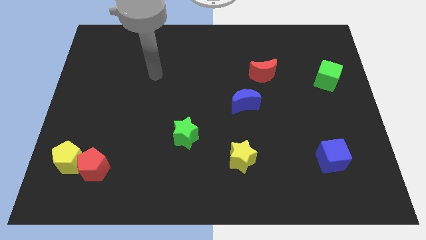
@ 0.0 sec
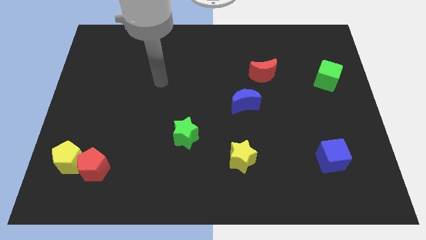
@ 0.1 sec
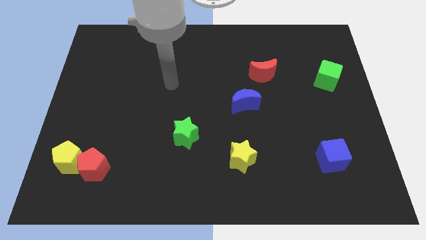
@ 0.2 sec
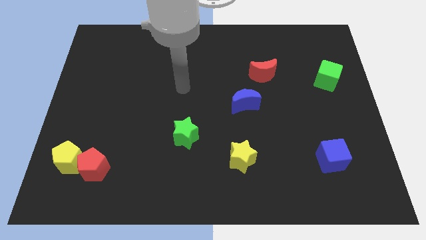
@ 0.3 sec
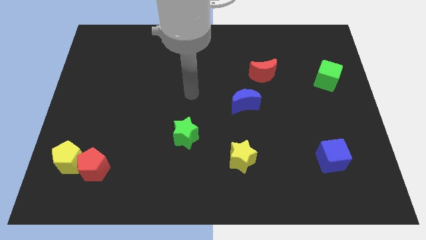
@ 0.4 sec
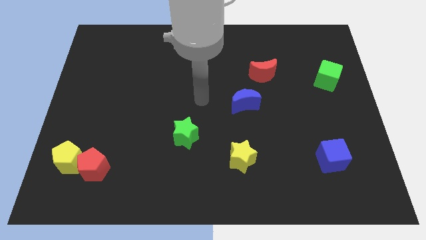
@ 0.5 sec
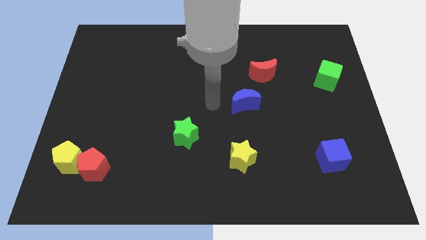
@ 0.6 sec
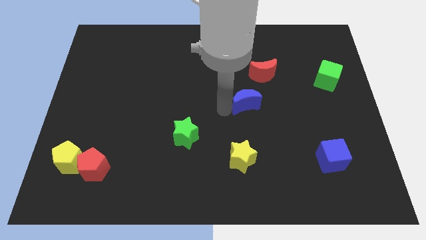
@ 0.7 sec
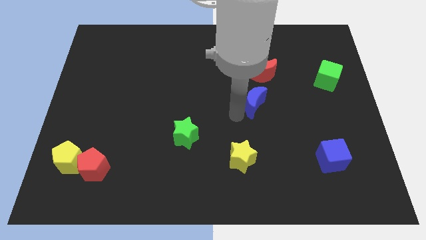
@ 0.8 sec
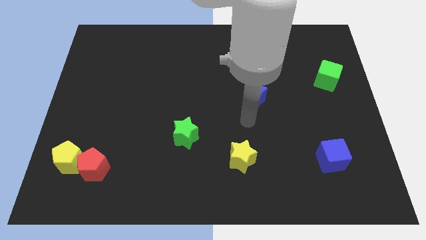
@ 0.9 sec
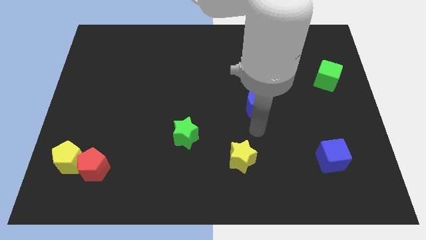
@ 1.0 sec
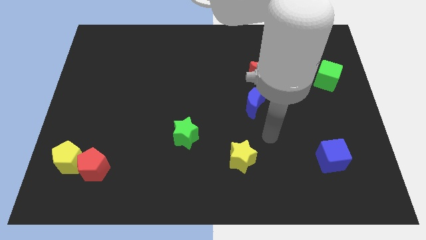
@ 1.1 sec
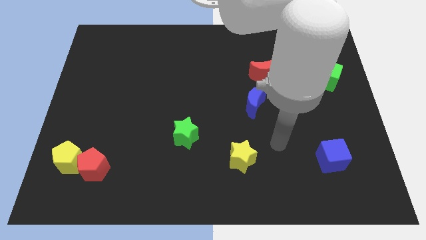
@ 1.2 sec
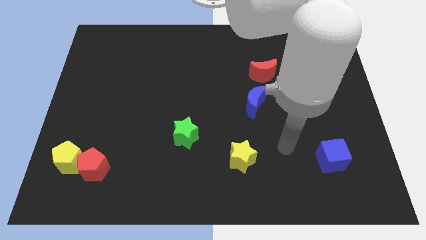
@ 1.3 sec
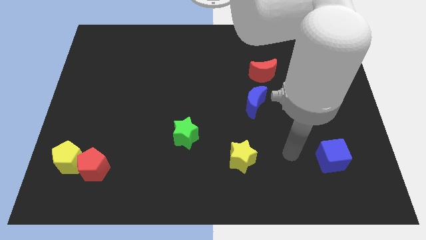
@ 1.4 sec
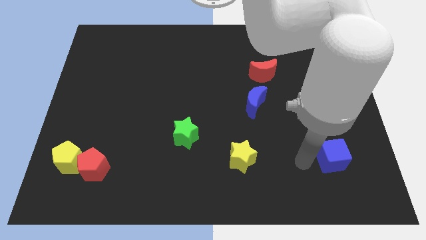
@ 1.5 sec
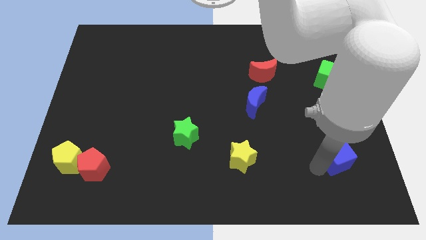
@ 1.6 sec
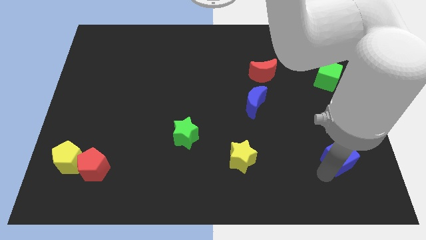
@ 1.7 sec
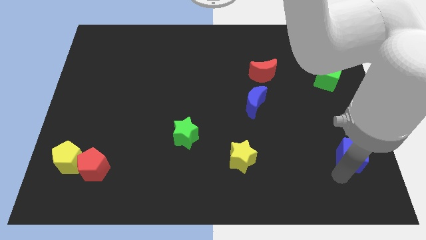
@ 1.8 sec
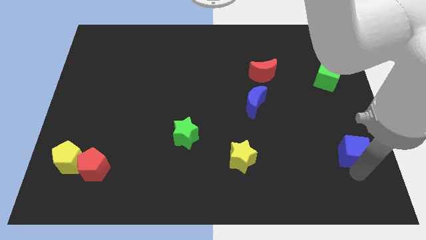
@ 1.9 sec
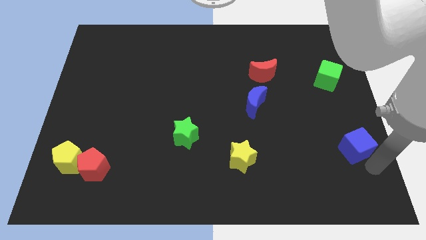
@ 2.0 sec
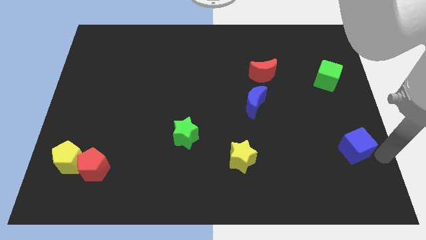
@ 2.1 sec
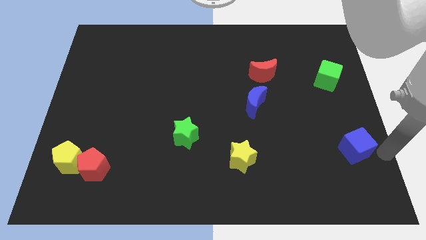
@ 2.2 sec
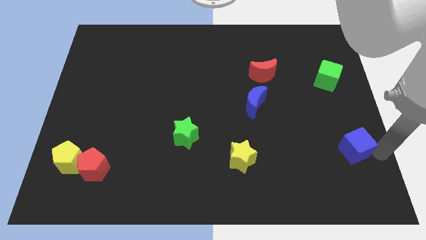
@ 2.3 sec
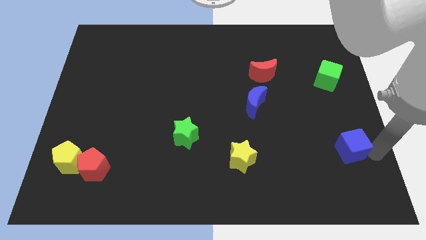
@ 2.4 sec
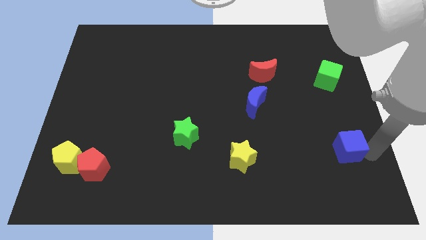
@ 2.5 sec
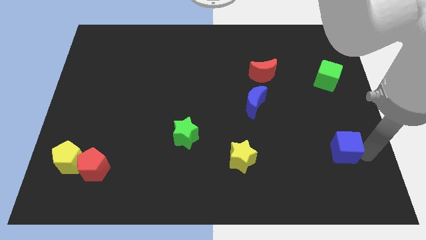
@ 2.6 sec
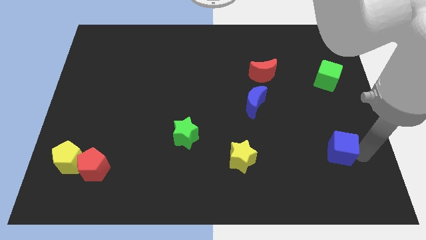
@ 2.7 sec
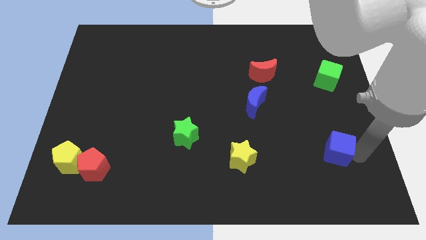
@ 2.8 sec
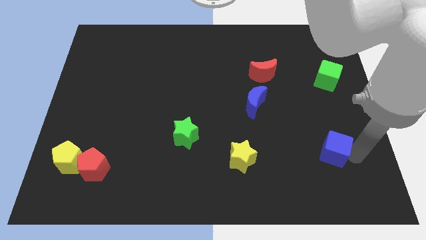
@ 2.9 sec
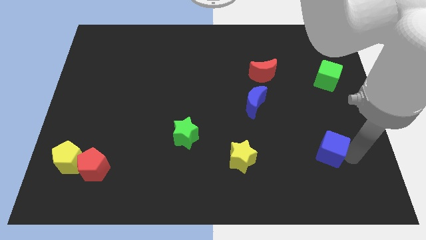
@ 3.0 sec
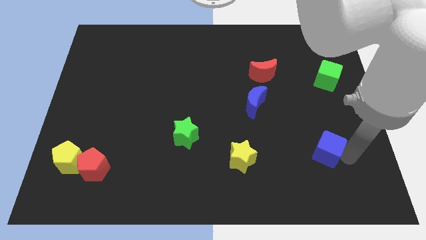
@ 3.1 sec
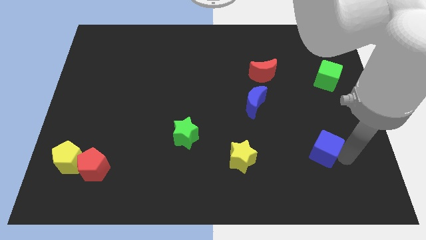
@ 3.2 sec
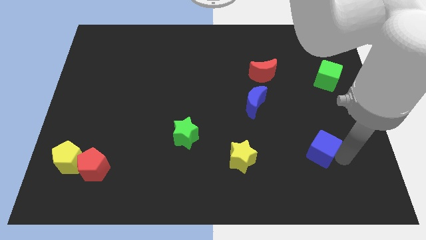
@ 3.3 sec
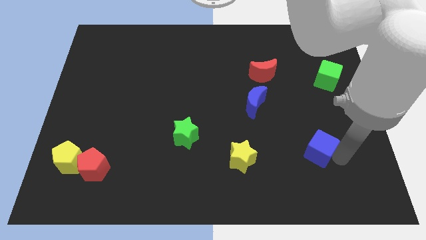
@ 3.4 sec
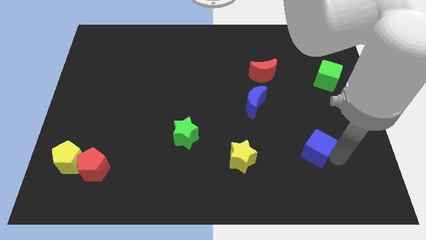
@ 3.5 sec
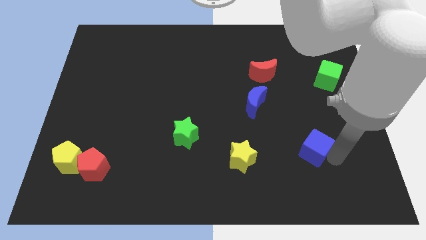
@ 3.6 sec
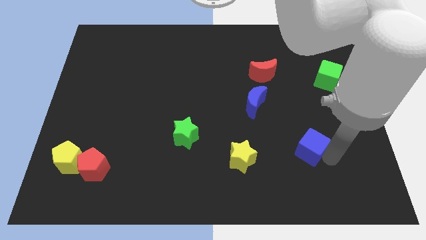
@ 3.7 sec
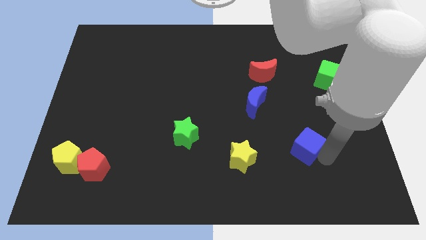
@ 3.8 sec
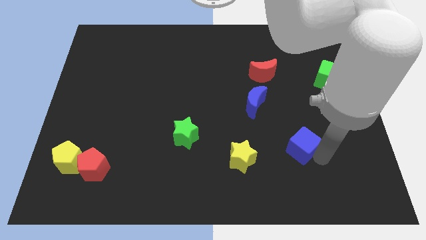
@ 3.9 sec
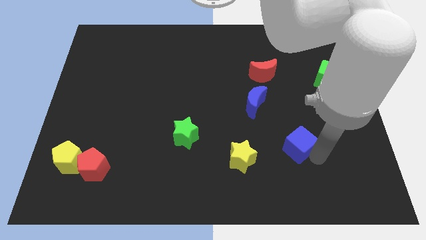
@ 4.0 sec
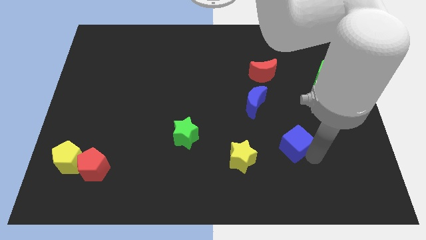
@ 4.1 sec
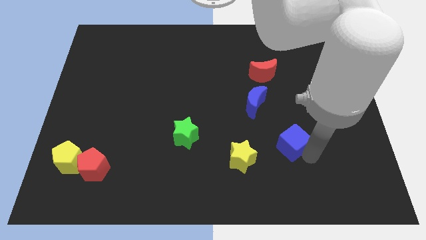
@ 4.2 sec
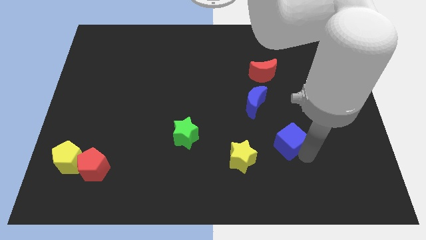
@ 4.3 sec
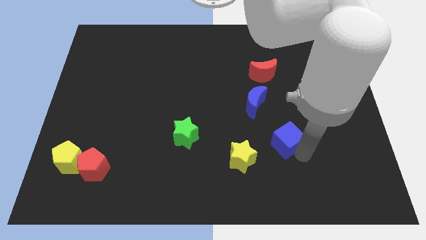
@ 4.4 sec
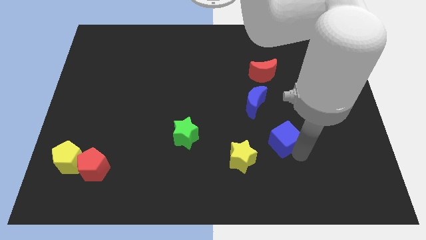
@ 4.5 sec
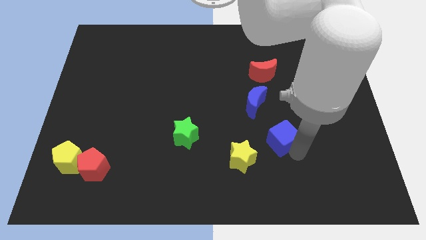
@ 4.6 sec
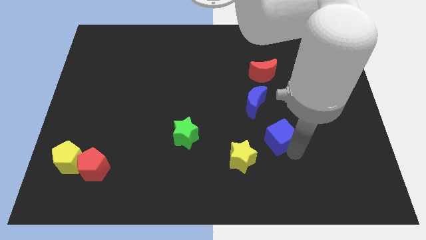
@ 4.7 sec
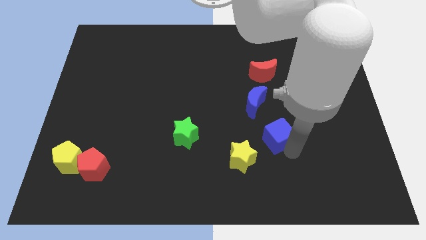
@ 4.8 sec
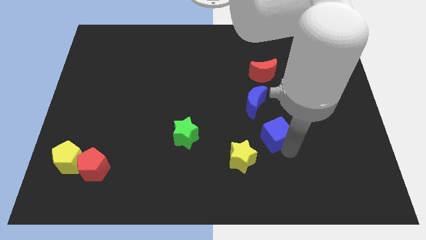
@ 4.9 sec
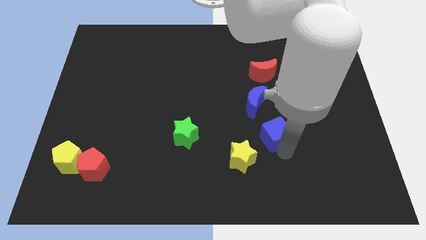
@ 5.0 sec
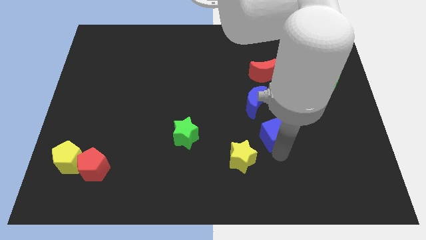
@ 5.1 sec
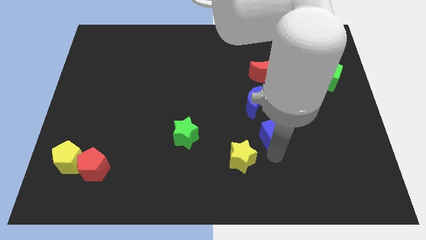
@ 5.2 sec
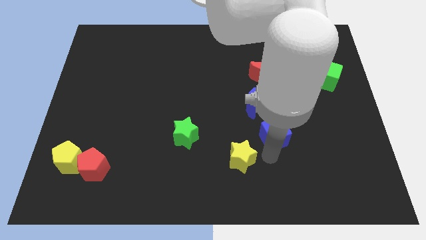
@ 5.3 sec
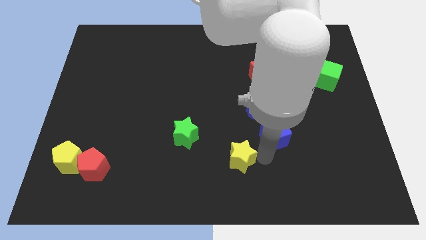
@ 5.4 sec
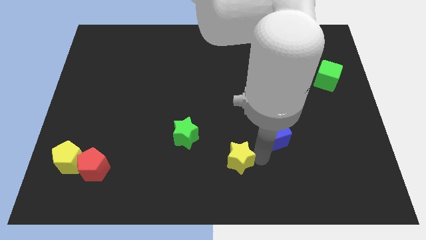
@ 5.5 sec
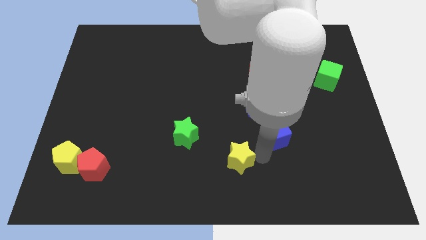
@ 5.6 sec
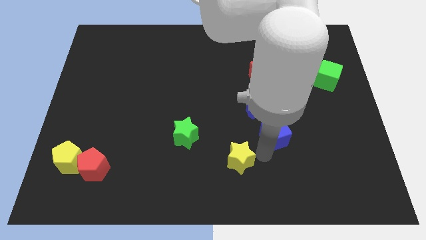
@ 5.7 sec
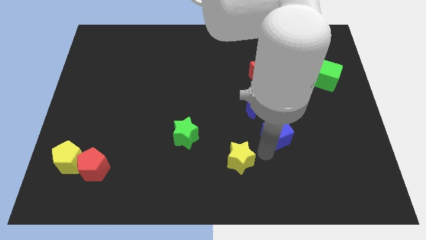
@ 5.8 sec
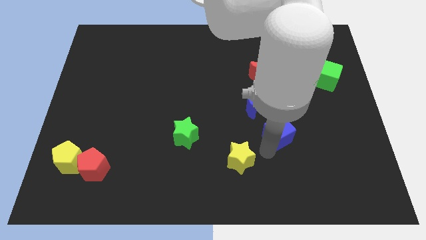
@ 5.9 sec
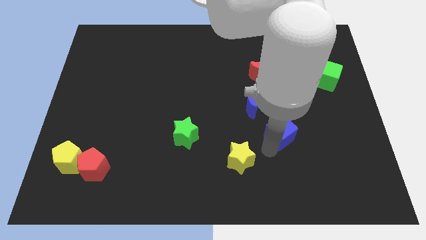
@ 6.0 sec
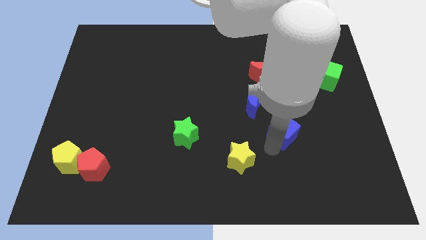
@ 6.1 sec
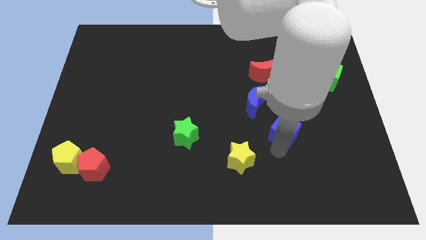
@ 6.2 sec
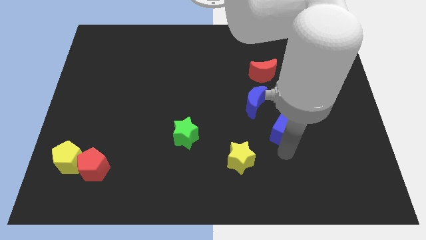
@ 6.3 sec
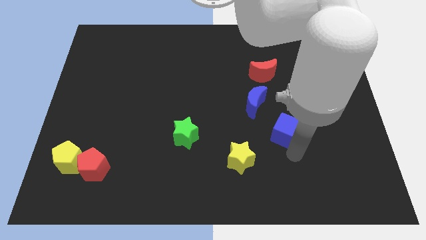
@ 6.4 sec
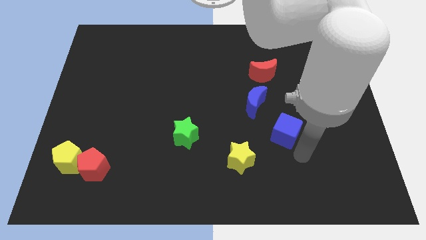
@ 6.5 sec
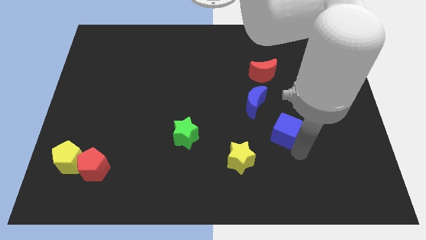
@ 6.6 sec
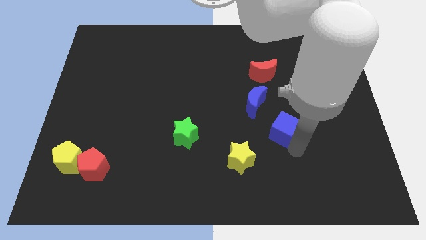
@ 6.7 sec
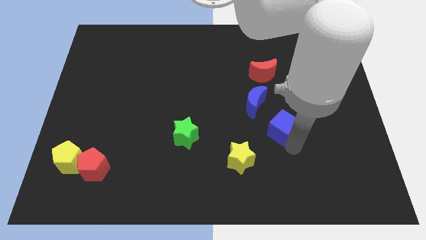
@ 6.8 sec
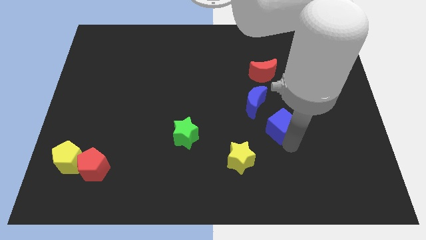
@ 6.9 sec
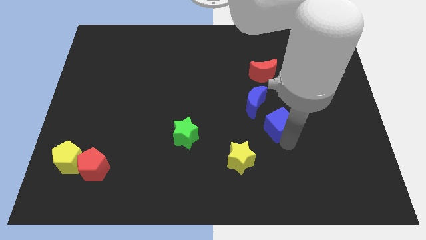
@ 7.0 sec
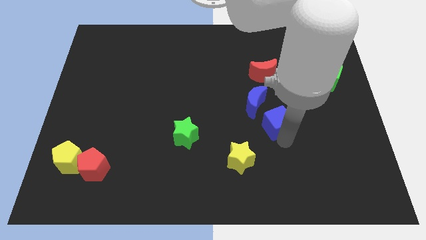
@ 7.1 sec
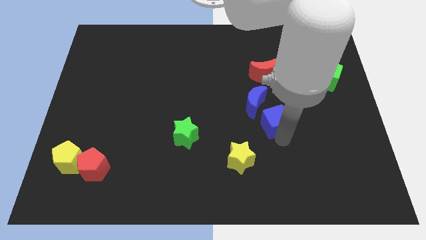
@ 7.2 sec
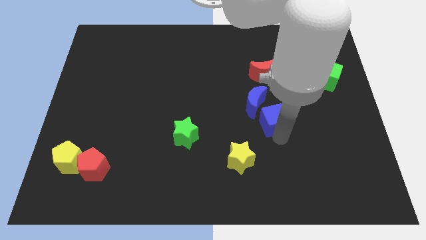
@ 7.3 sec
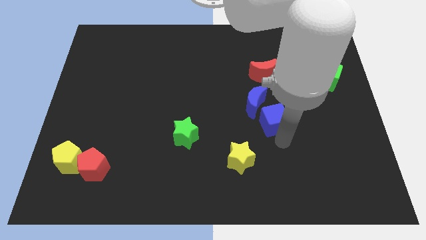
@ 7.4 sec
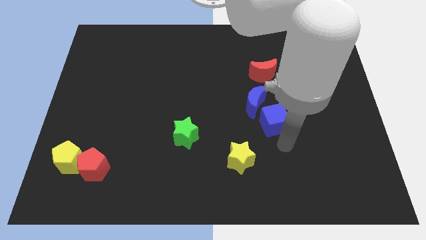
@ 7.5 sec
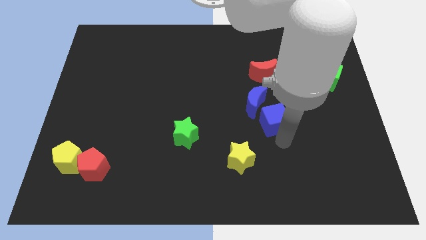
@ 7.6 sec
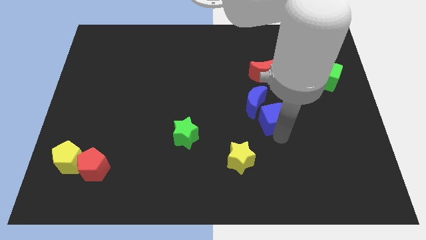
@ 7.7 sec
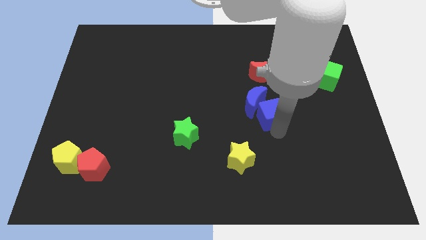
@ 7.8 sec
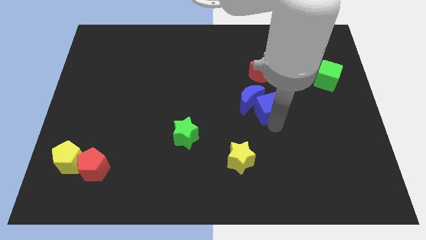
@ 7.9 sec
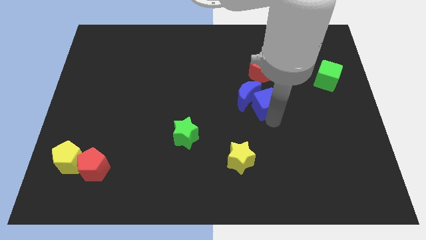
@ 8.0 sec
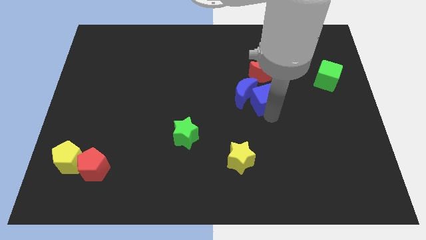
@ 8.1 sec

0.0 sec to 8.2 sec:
slide the blue cube upwards and left

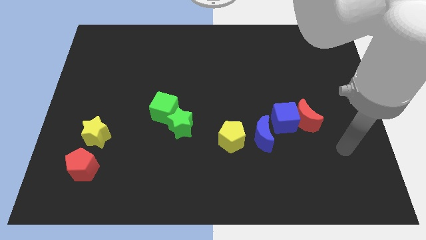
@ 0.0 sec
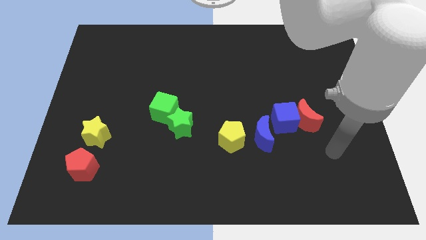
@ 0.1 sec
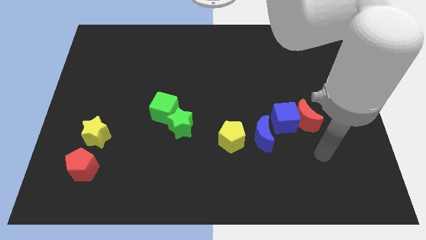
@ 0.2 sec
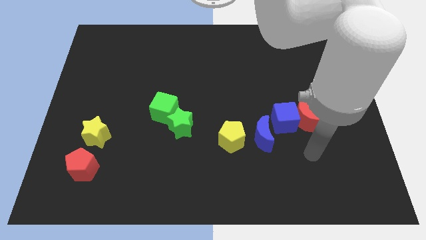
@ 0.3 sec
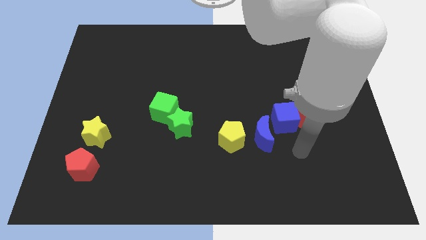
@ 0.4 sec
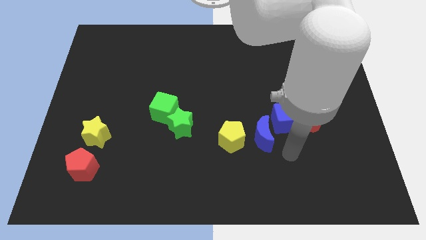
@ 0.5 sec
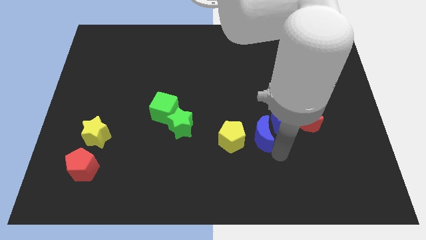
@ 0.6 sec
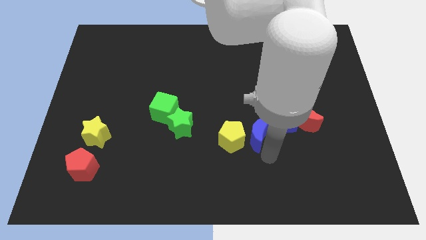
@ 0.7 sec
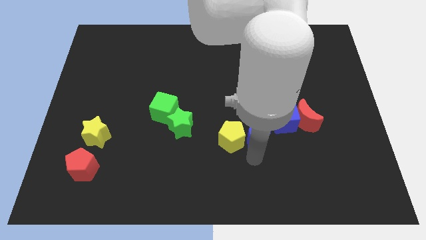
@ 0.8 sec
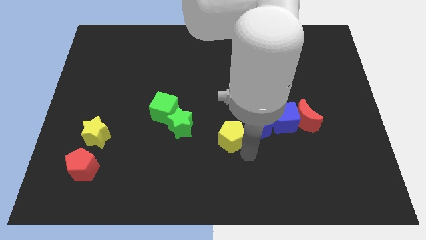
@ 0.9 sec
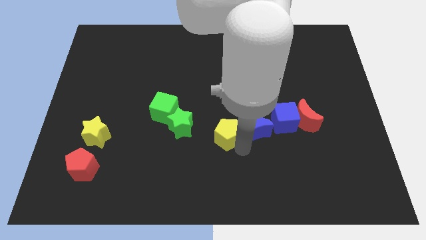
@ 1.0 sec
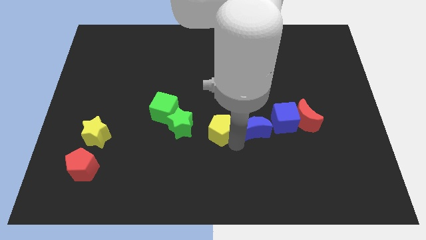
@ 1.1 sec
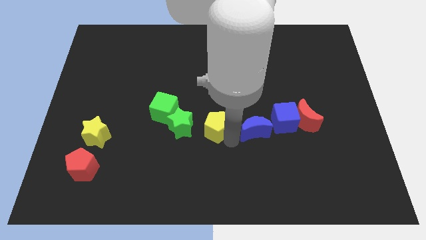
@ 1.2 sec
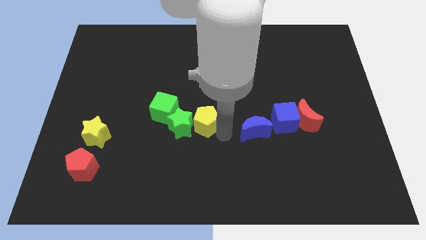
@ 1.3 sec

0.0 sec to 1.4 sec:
move the yellow pentagon a little upwards and left
